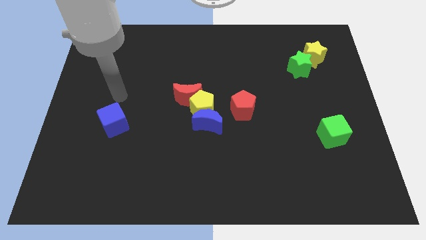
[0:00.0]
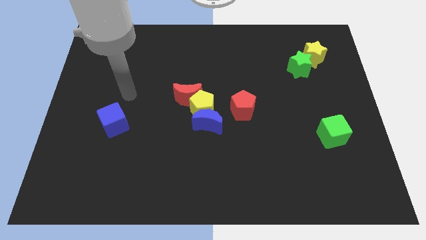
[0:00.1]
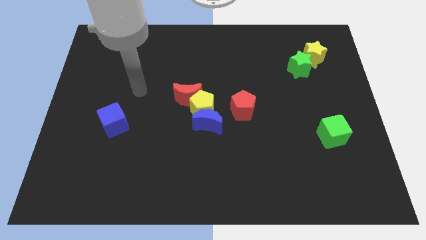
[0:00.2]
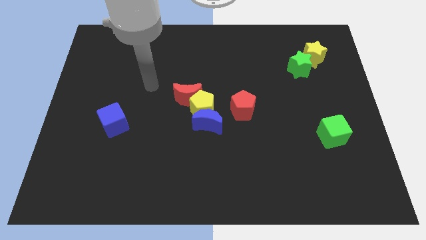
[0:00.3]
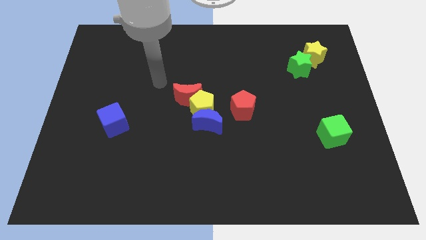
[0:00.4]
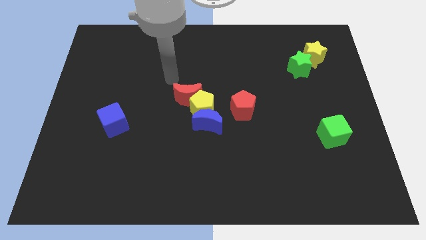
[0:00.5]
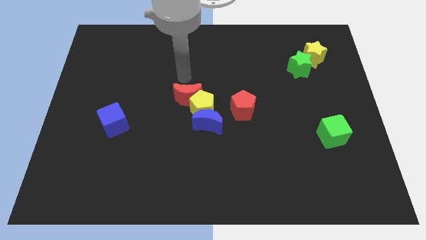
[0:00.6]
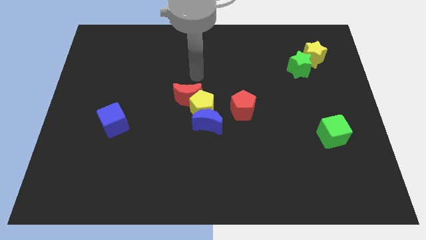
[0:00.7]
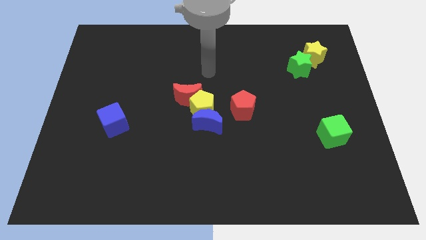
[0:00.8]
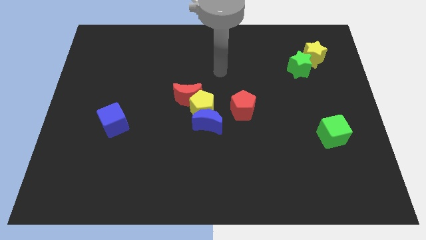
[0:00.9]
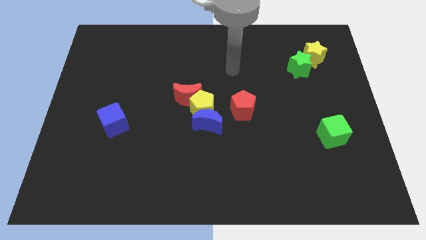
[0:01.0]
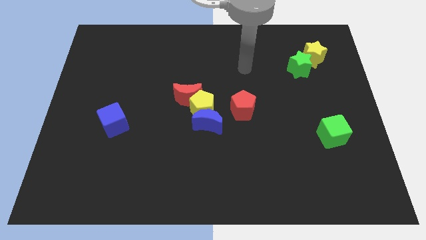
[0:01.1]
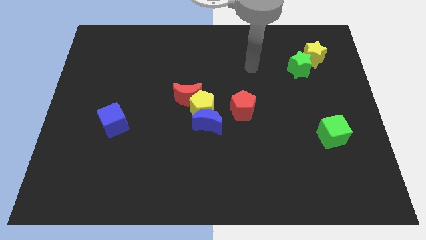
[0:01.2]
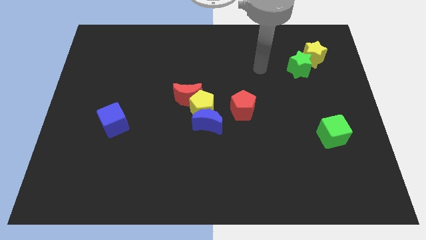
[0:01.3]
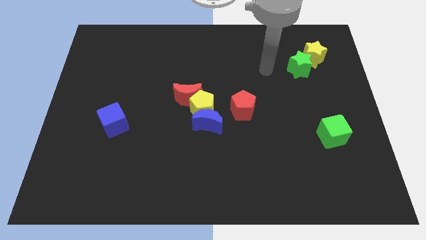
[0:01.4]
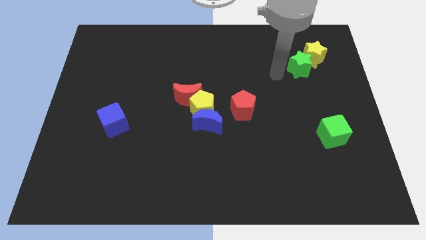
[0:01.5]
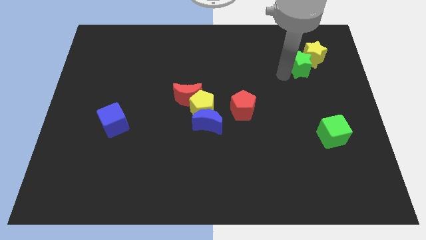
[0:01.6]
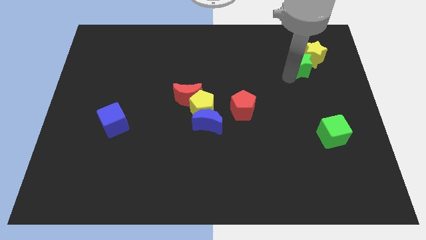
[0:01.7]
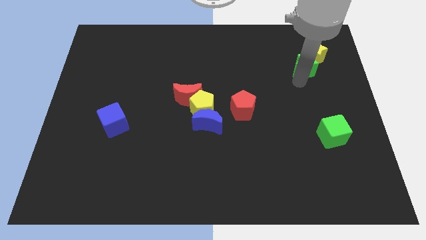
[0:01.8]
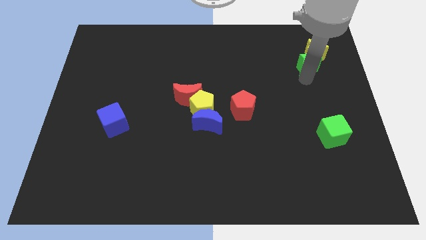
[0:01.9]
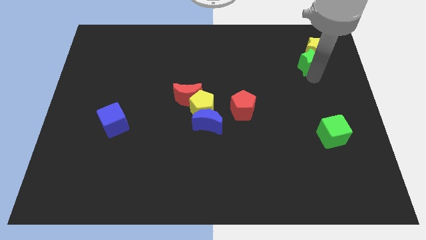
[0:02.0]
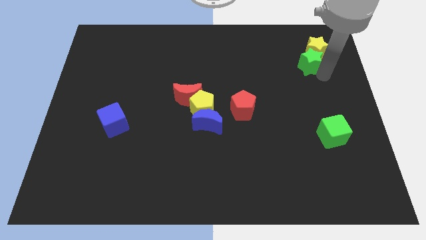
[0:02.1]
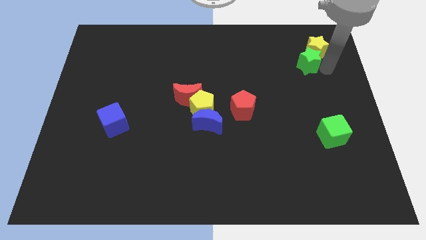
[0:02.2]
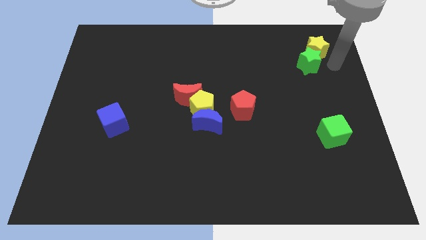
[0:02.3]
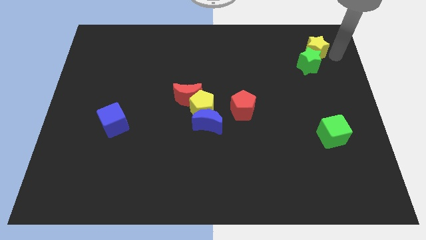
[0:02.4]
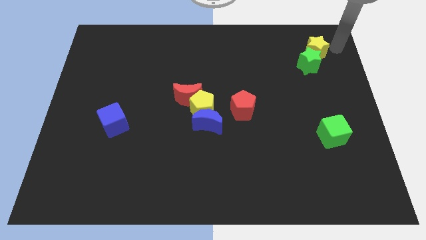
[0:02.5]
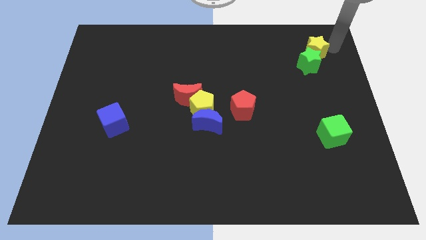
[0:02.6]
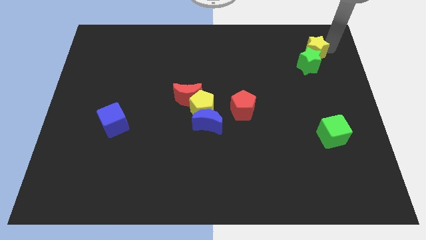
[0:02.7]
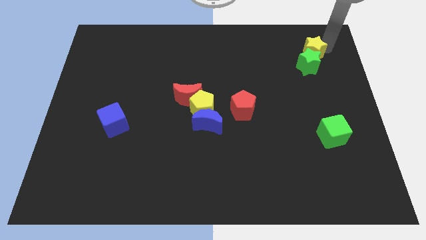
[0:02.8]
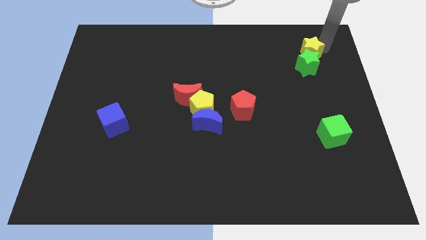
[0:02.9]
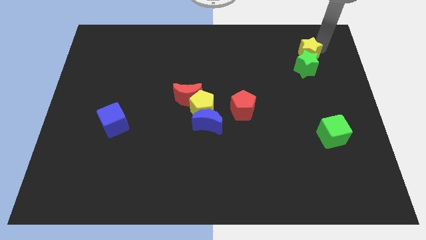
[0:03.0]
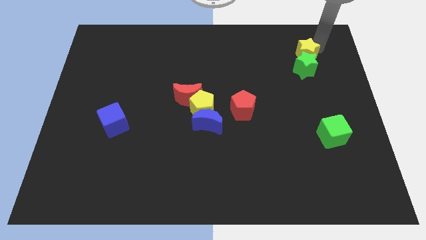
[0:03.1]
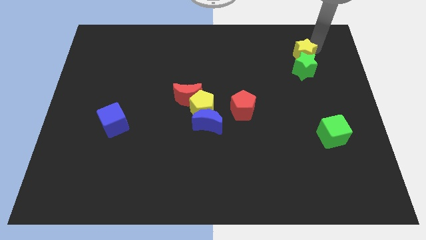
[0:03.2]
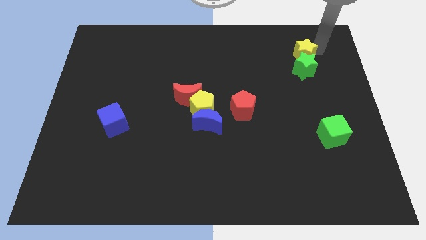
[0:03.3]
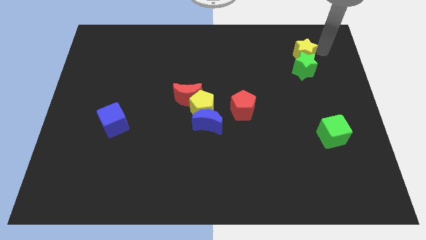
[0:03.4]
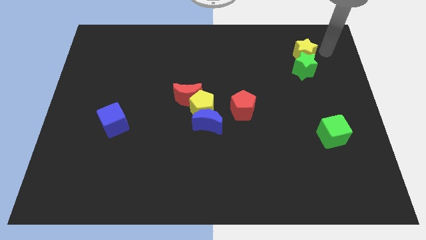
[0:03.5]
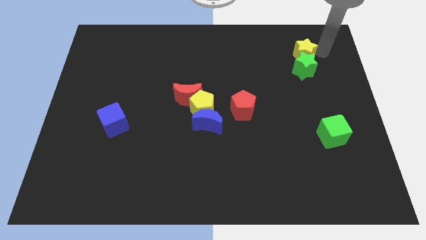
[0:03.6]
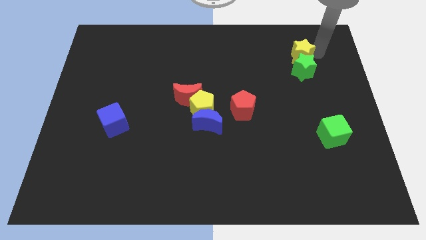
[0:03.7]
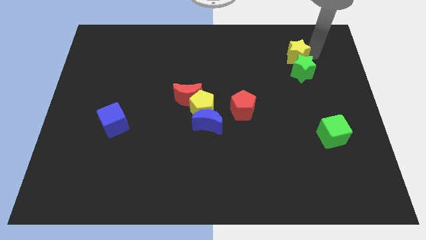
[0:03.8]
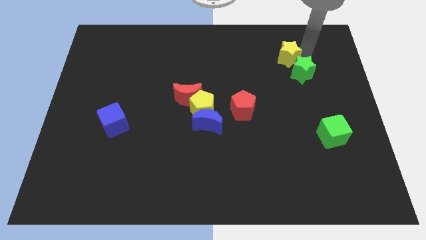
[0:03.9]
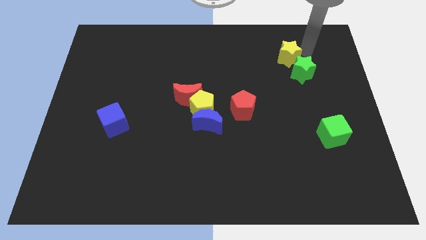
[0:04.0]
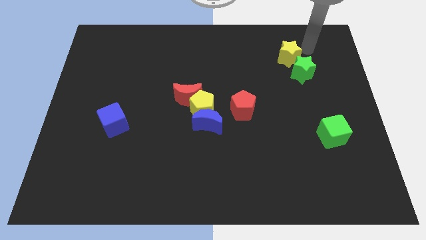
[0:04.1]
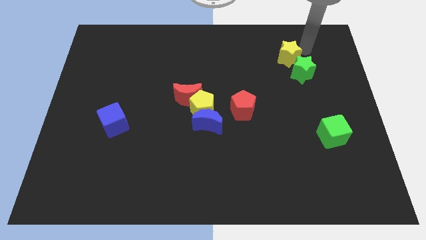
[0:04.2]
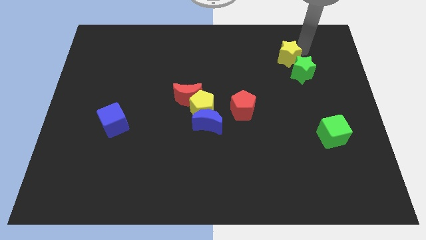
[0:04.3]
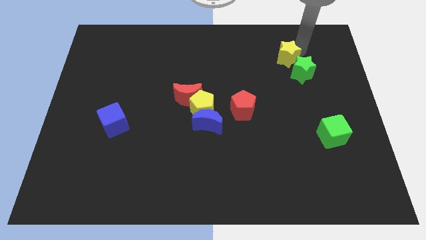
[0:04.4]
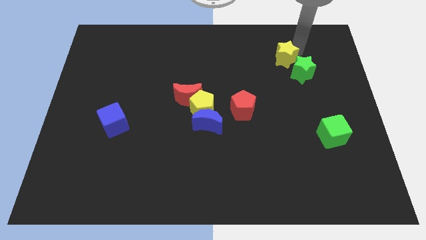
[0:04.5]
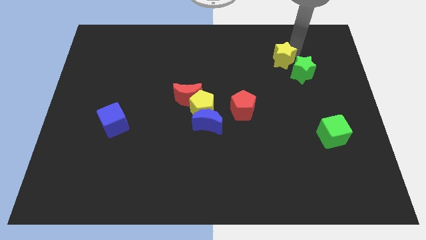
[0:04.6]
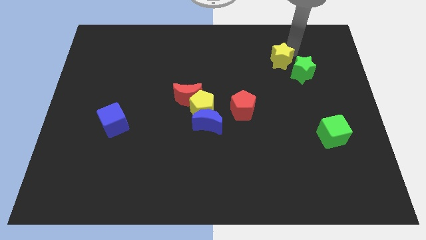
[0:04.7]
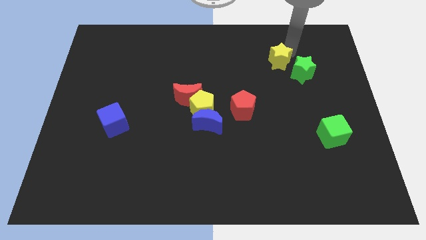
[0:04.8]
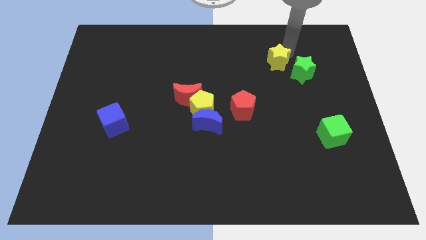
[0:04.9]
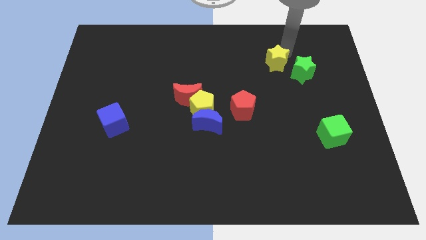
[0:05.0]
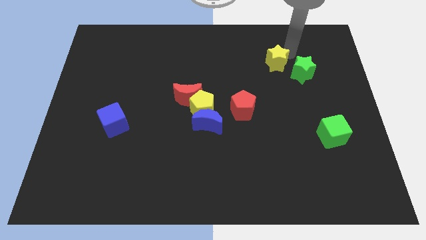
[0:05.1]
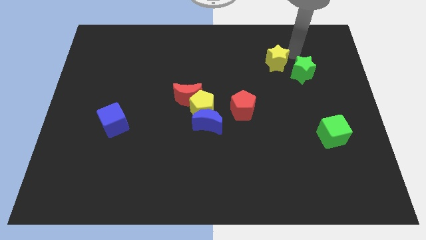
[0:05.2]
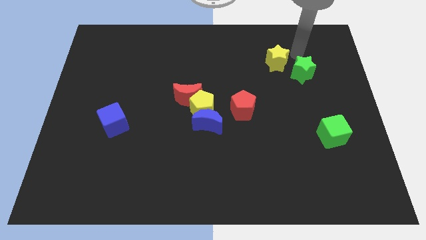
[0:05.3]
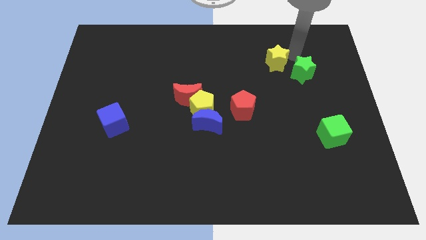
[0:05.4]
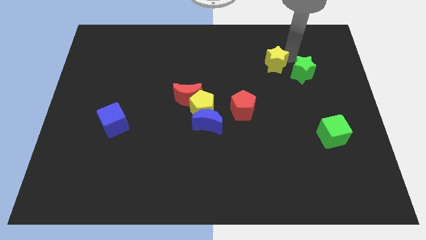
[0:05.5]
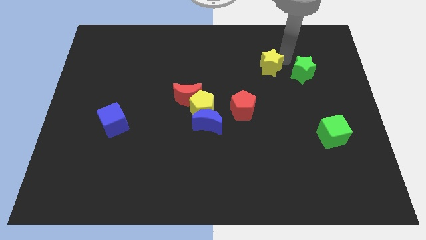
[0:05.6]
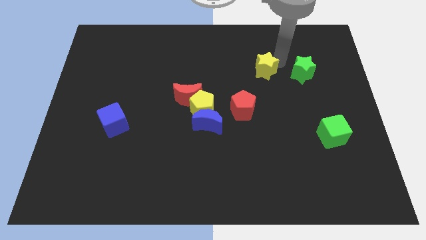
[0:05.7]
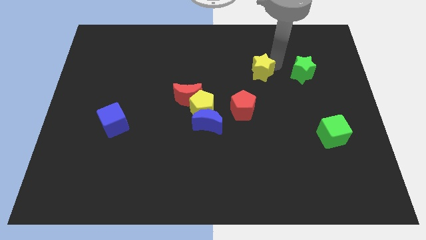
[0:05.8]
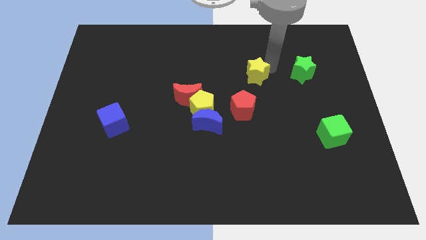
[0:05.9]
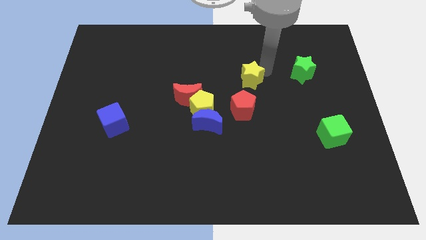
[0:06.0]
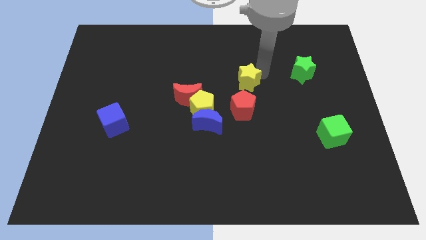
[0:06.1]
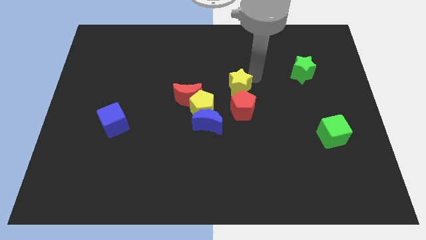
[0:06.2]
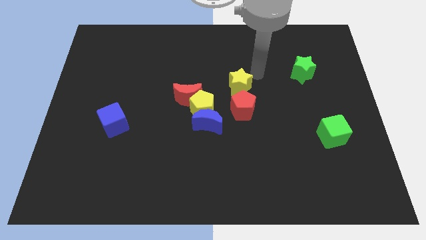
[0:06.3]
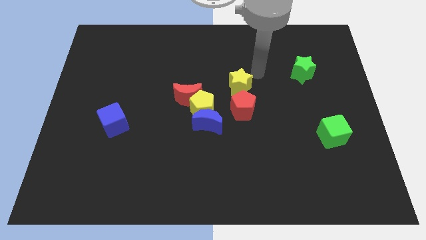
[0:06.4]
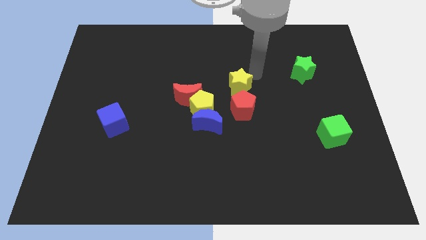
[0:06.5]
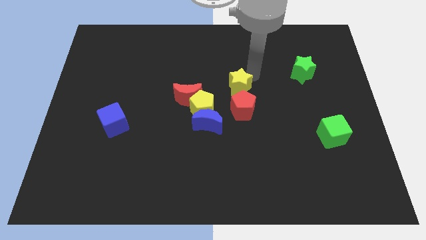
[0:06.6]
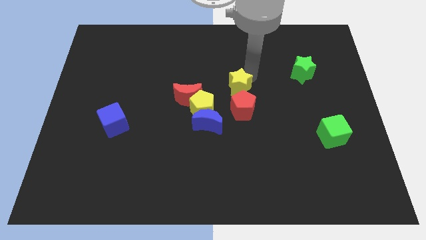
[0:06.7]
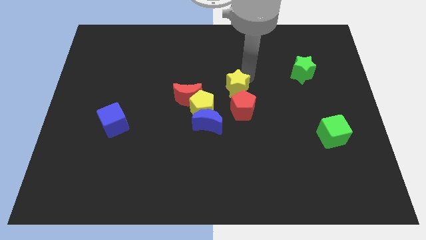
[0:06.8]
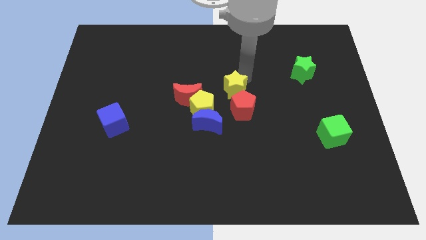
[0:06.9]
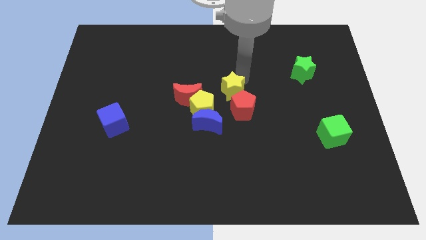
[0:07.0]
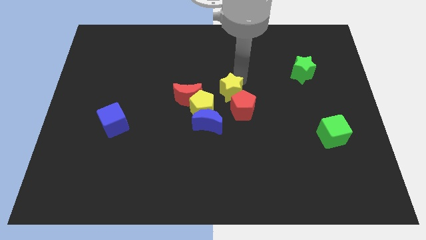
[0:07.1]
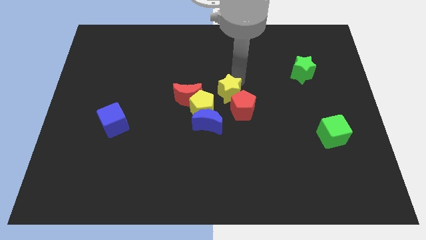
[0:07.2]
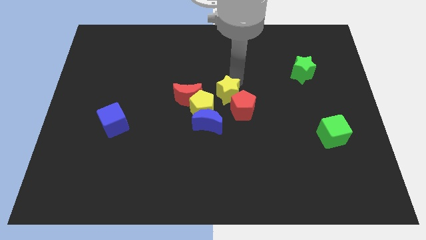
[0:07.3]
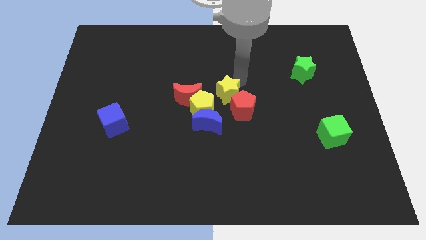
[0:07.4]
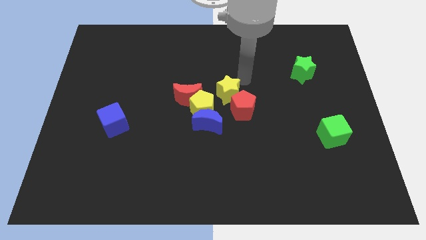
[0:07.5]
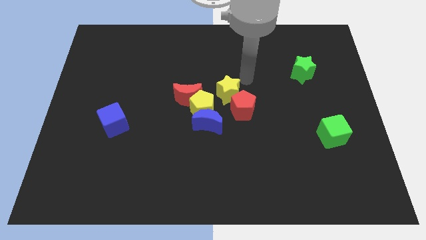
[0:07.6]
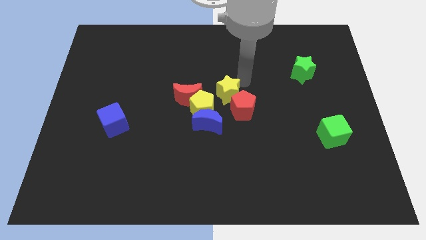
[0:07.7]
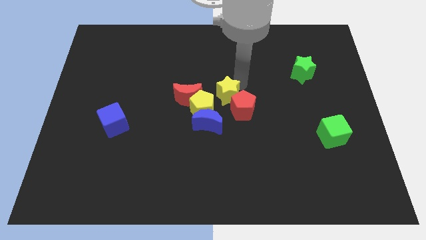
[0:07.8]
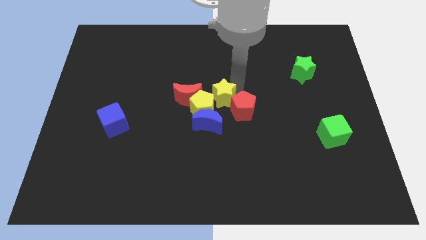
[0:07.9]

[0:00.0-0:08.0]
slide the yellow star towards the yellow pentagon
